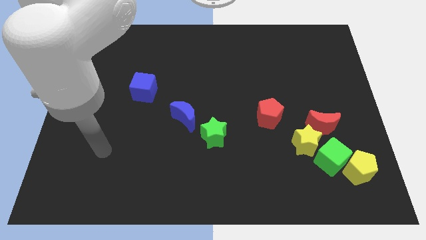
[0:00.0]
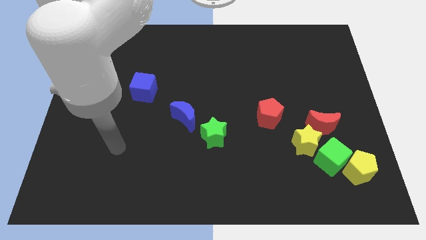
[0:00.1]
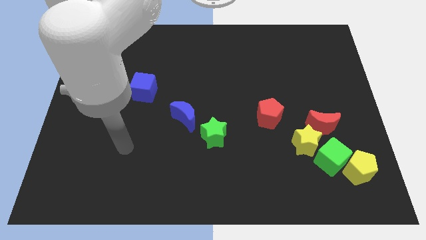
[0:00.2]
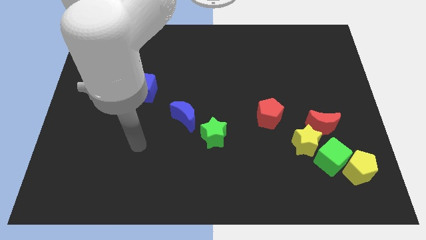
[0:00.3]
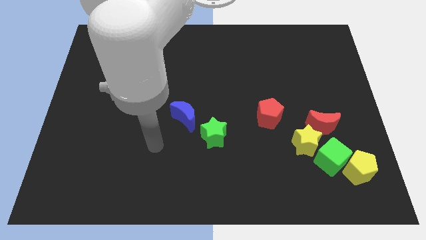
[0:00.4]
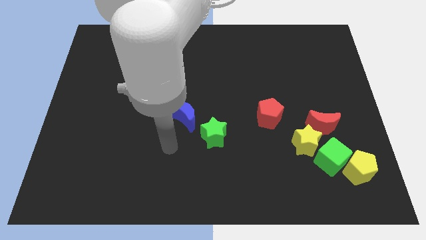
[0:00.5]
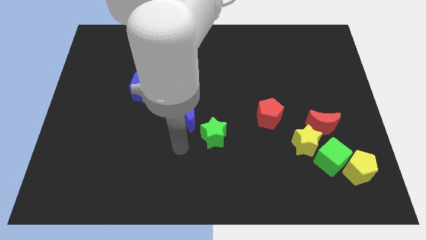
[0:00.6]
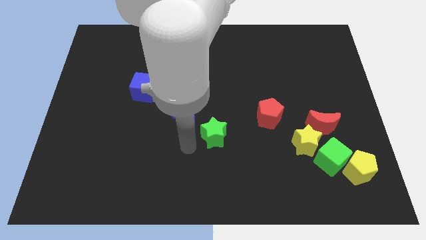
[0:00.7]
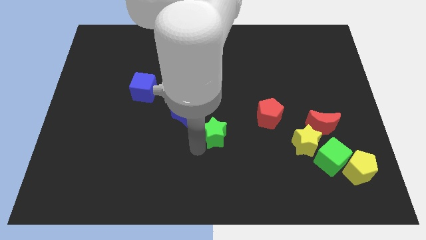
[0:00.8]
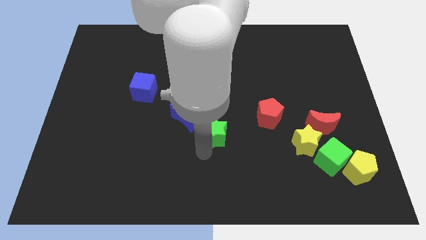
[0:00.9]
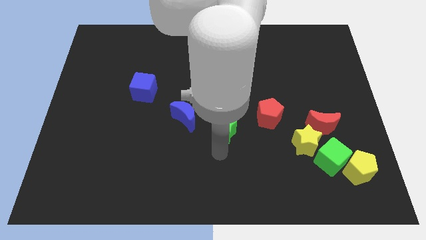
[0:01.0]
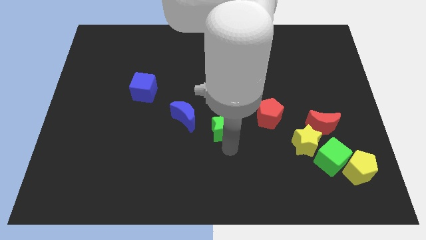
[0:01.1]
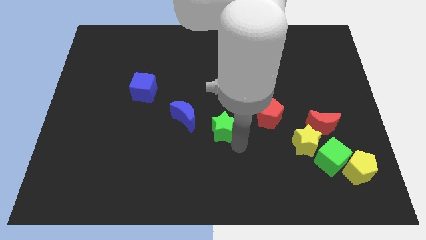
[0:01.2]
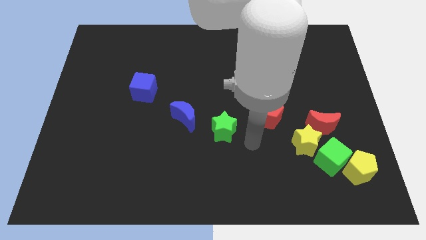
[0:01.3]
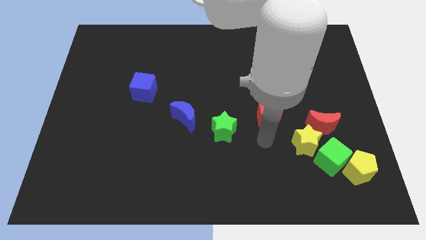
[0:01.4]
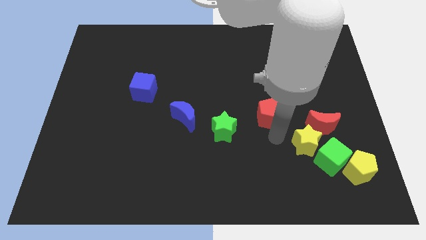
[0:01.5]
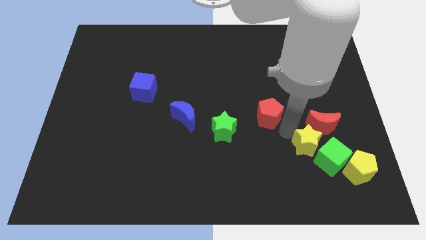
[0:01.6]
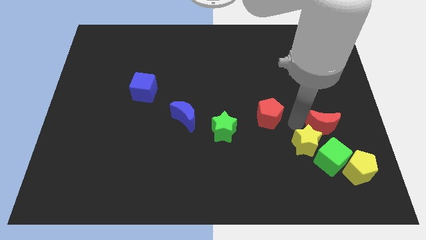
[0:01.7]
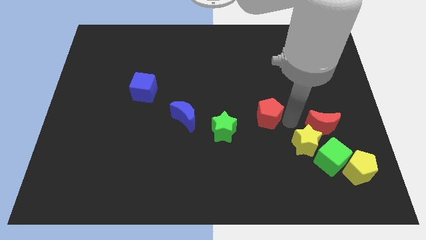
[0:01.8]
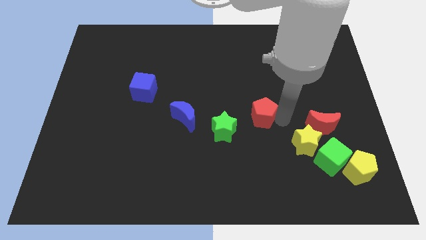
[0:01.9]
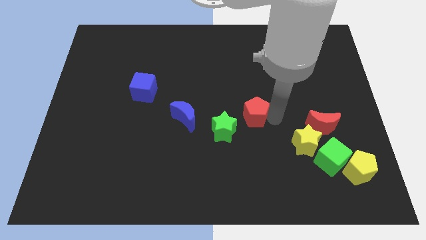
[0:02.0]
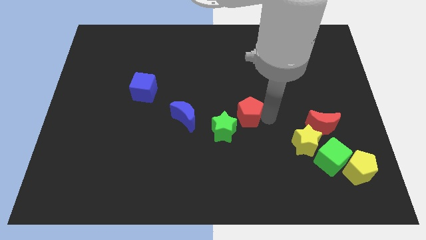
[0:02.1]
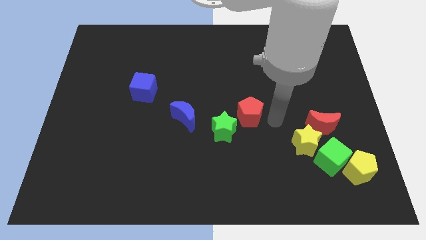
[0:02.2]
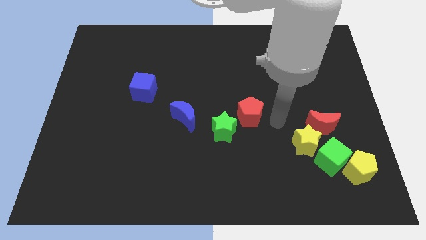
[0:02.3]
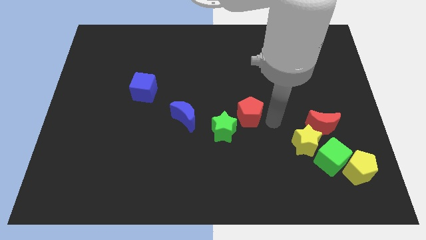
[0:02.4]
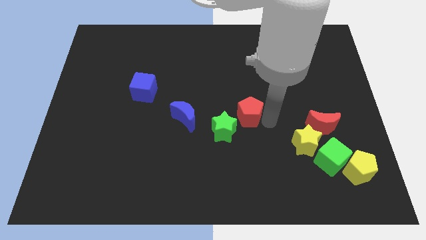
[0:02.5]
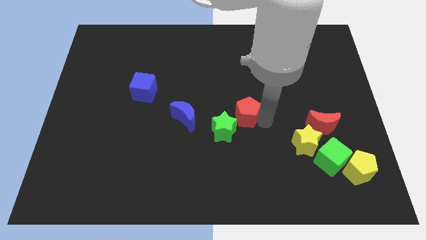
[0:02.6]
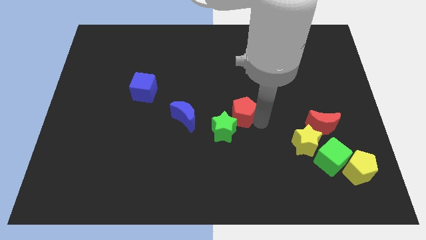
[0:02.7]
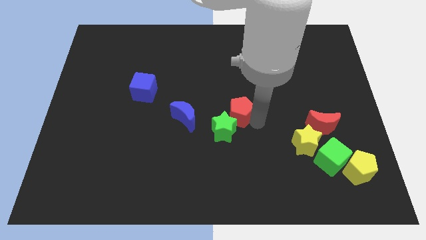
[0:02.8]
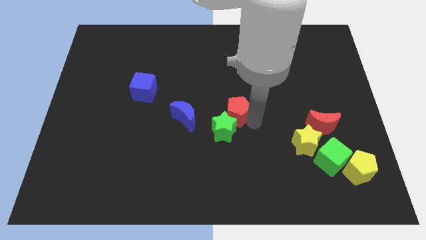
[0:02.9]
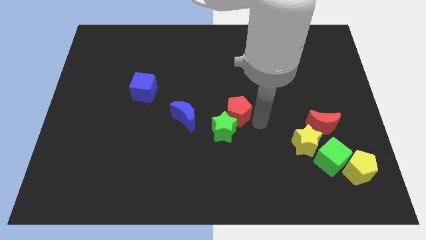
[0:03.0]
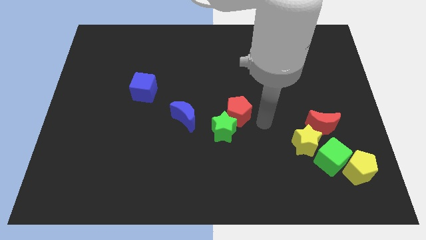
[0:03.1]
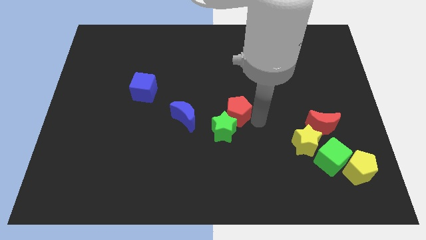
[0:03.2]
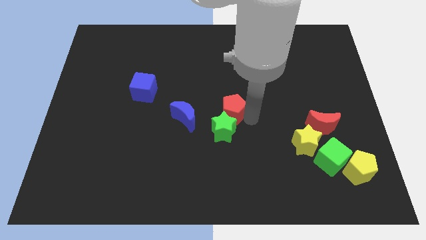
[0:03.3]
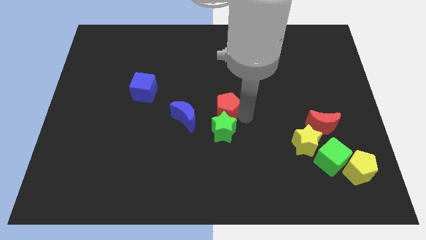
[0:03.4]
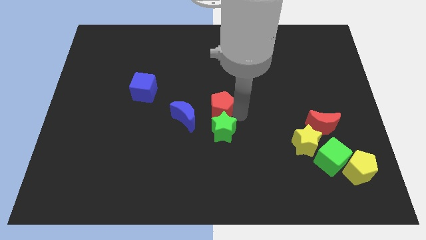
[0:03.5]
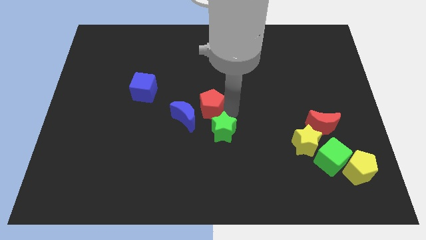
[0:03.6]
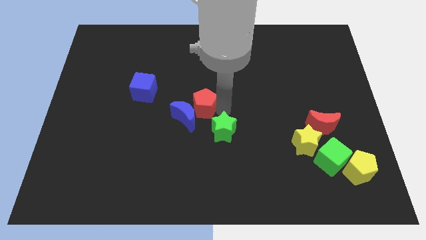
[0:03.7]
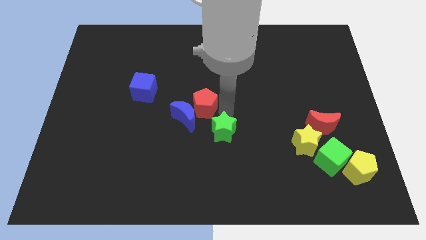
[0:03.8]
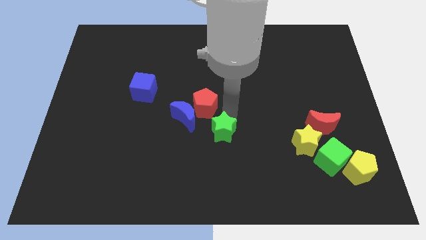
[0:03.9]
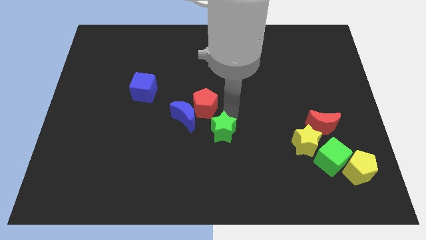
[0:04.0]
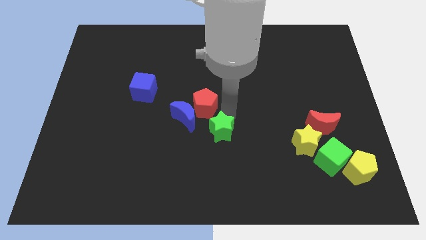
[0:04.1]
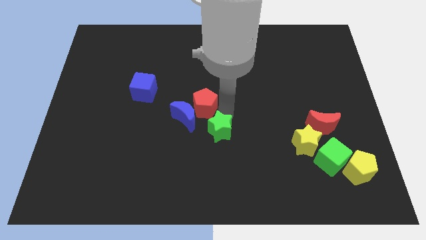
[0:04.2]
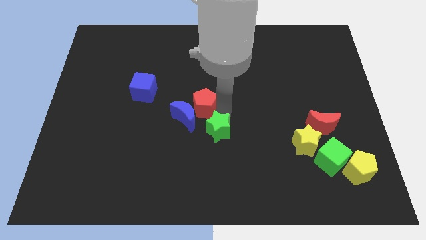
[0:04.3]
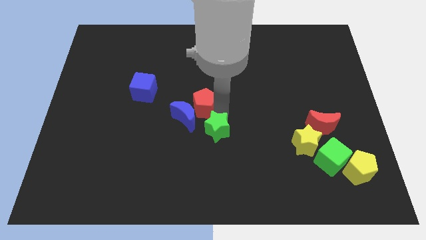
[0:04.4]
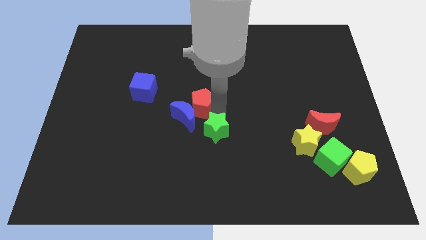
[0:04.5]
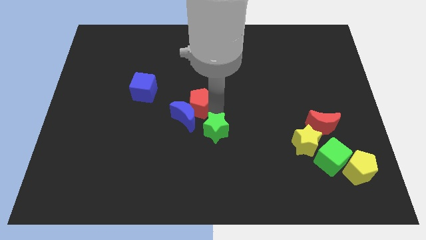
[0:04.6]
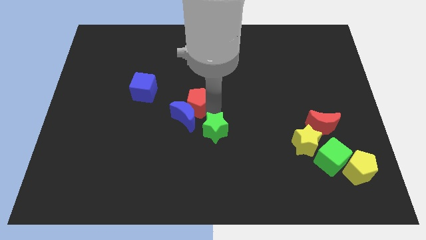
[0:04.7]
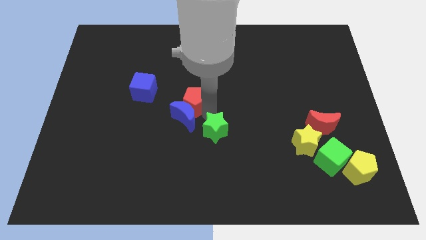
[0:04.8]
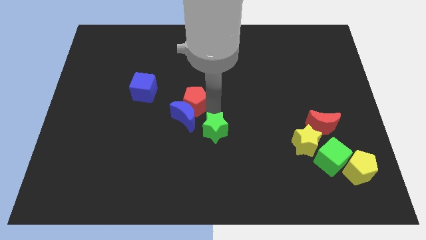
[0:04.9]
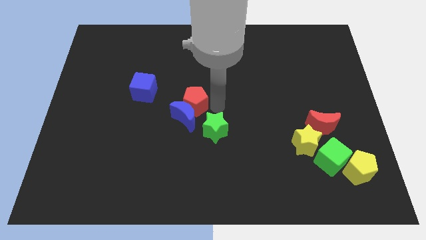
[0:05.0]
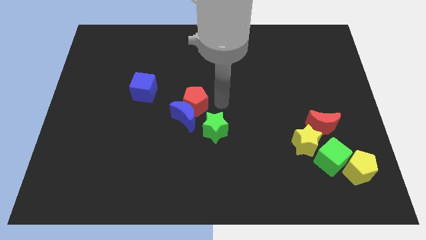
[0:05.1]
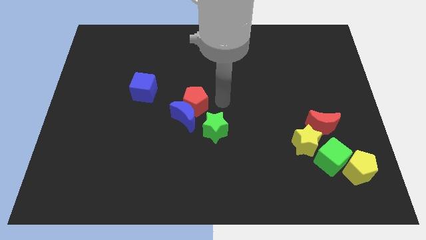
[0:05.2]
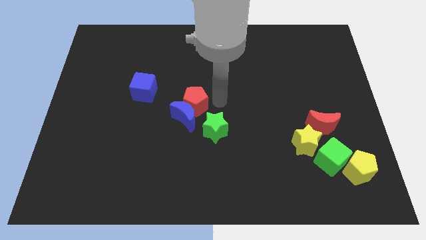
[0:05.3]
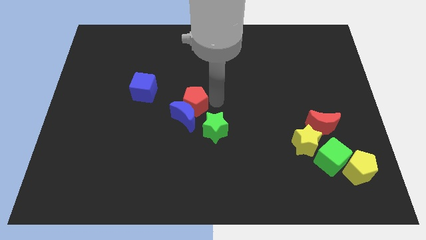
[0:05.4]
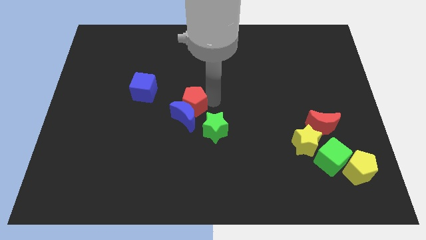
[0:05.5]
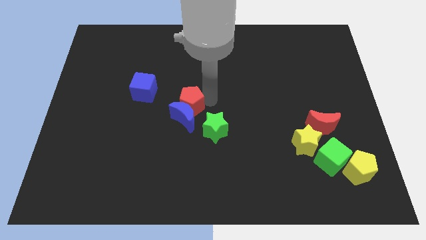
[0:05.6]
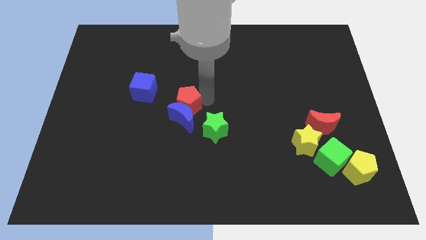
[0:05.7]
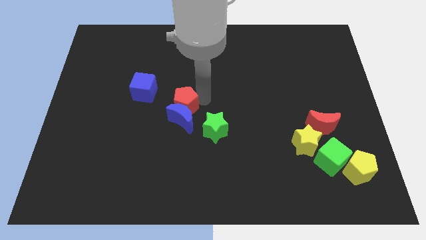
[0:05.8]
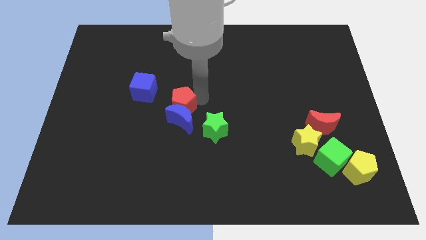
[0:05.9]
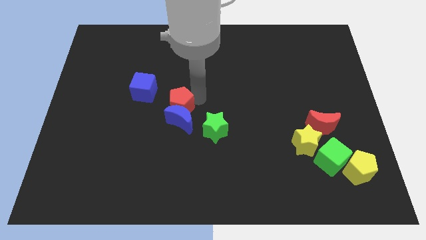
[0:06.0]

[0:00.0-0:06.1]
move the red pentagon left

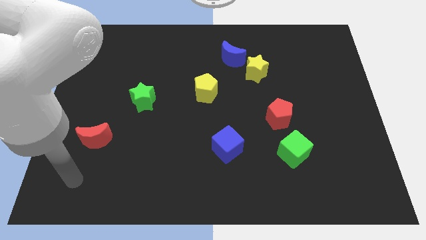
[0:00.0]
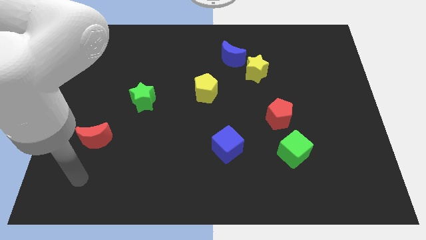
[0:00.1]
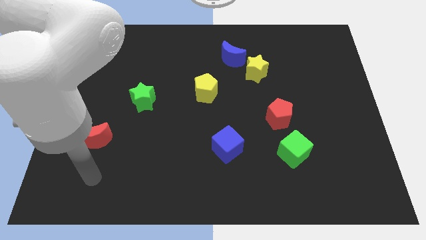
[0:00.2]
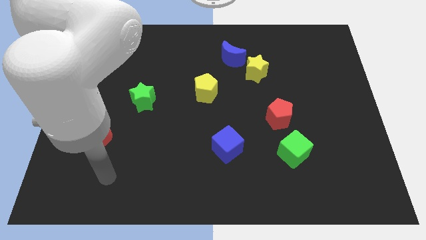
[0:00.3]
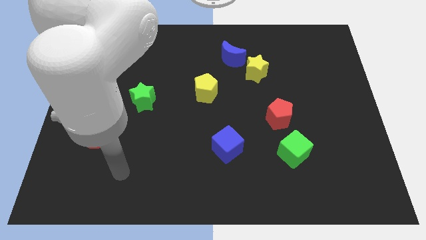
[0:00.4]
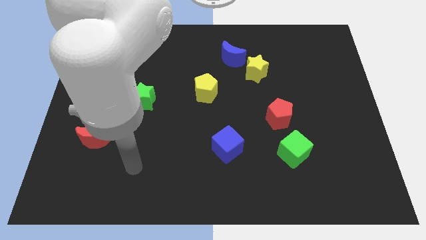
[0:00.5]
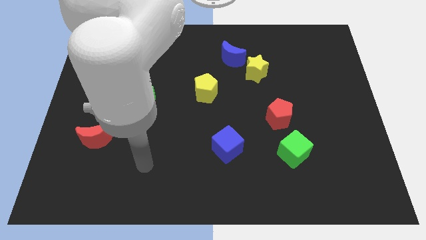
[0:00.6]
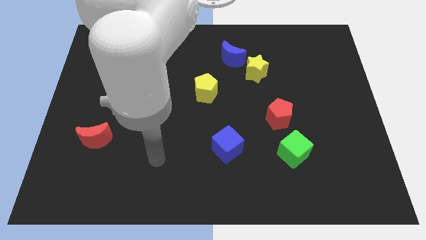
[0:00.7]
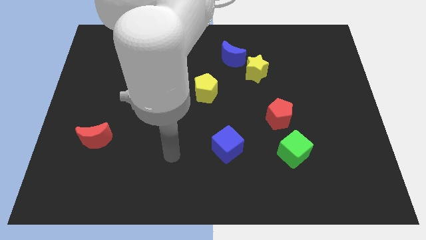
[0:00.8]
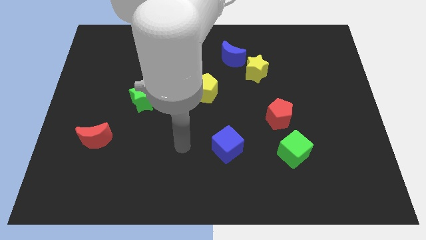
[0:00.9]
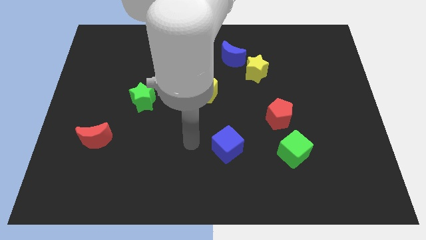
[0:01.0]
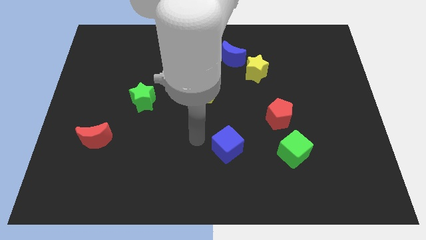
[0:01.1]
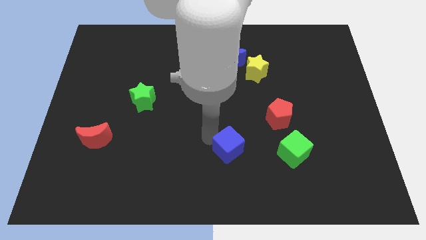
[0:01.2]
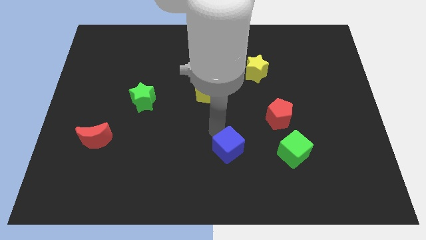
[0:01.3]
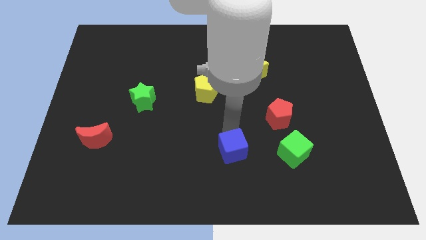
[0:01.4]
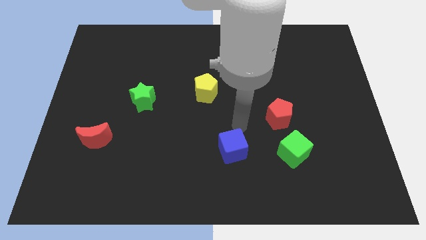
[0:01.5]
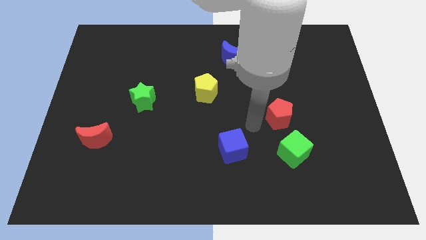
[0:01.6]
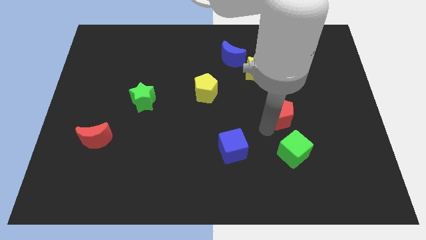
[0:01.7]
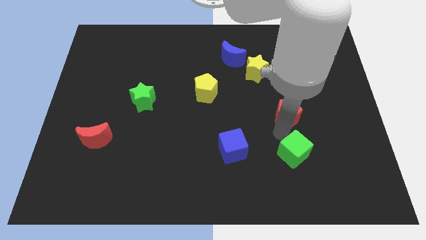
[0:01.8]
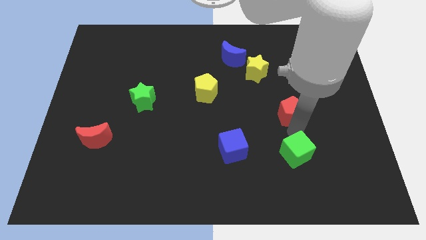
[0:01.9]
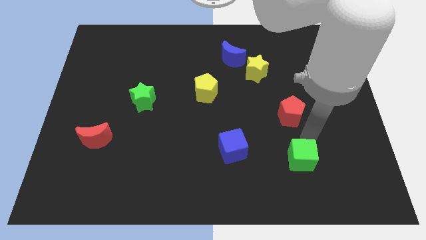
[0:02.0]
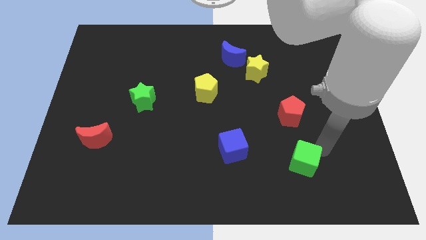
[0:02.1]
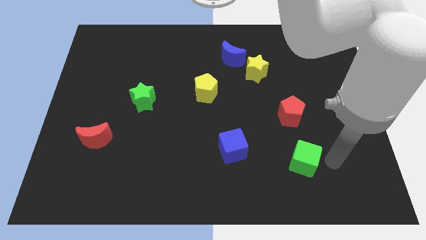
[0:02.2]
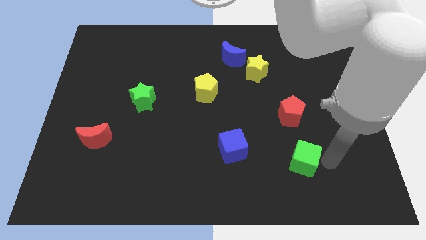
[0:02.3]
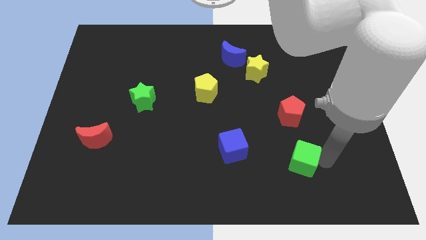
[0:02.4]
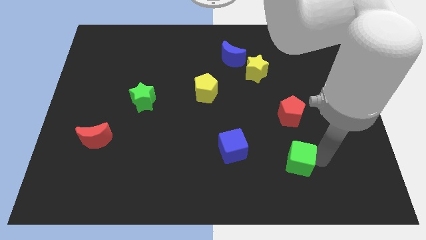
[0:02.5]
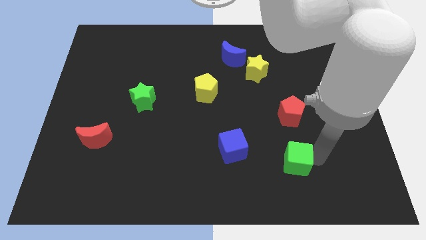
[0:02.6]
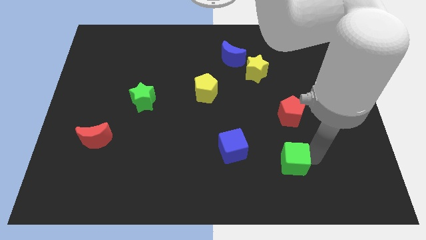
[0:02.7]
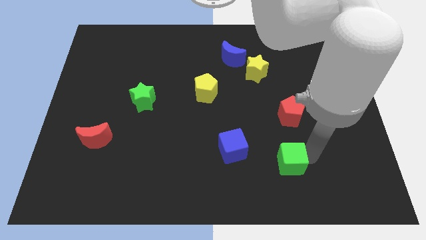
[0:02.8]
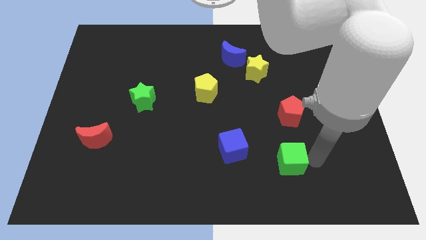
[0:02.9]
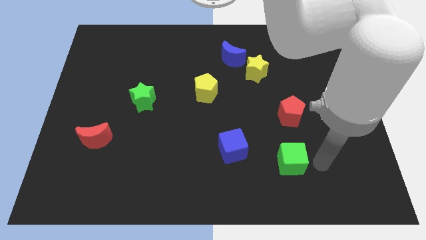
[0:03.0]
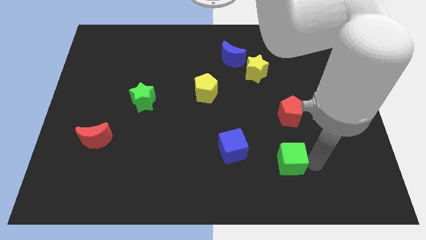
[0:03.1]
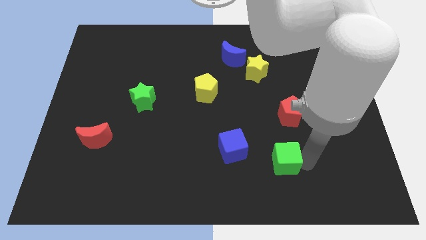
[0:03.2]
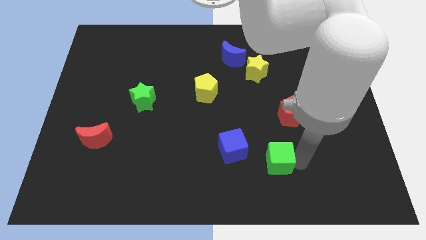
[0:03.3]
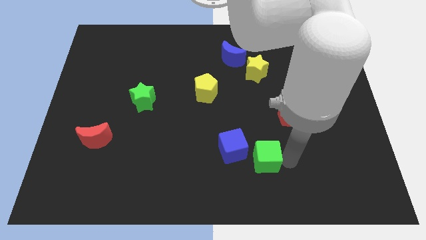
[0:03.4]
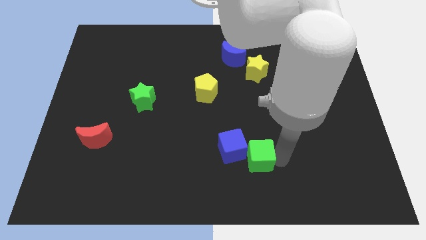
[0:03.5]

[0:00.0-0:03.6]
move the green cube to the left a bit
